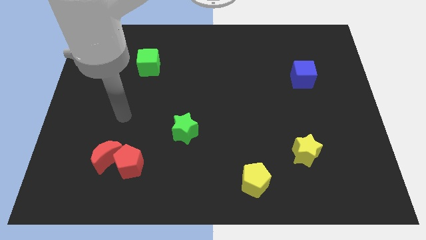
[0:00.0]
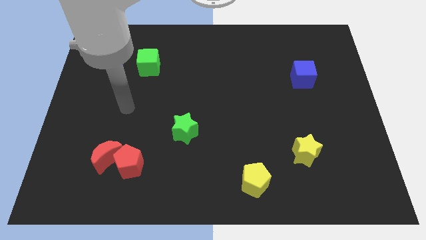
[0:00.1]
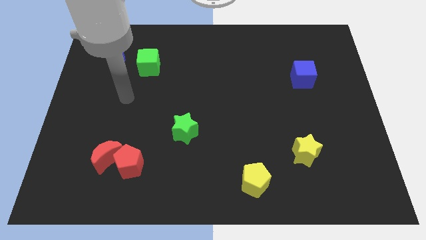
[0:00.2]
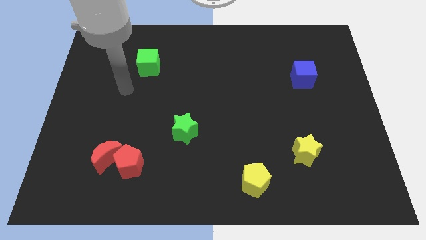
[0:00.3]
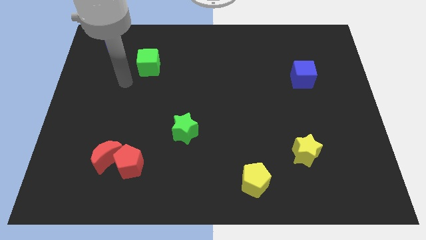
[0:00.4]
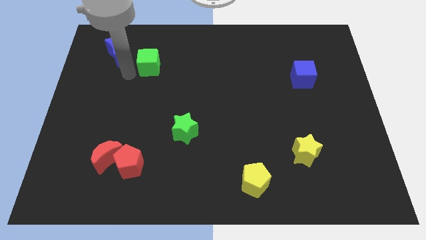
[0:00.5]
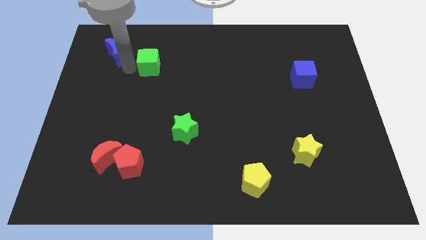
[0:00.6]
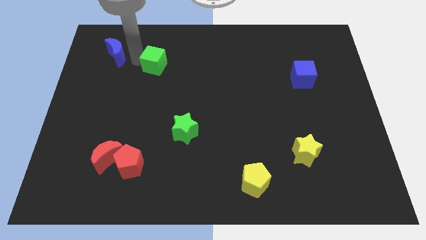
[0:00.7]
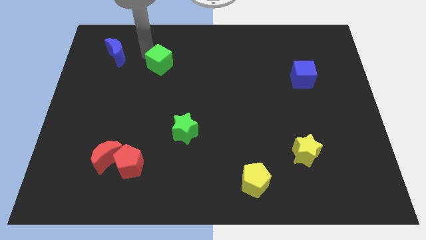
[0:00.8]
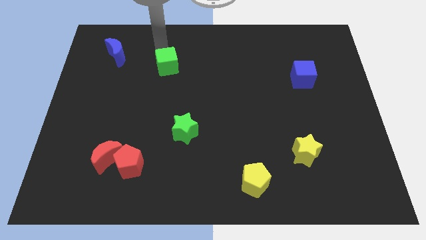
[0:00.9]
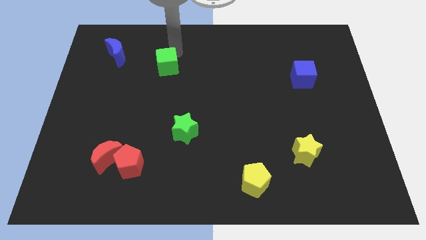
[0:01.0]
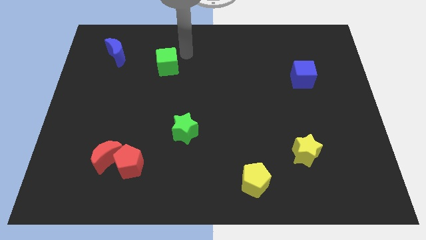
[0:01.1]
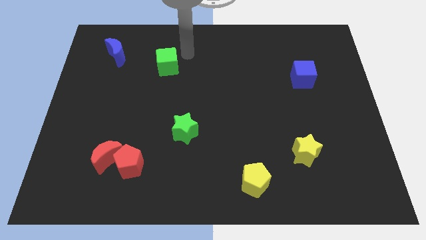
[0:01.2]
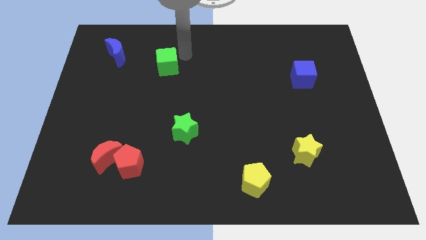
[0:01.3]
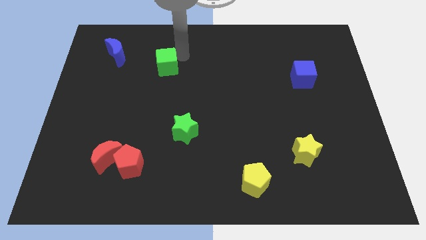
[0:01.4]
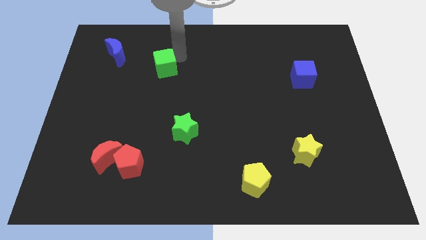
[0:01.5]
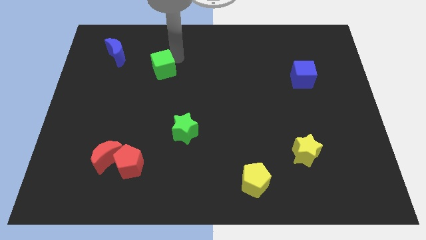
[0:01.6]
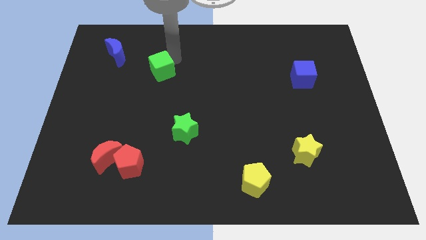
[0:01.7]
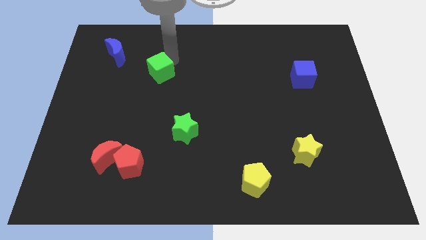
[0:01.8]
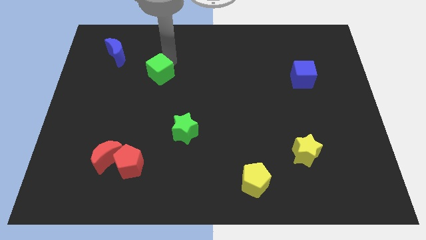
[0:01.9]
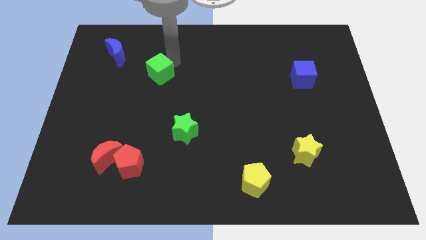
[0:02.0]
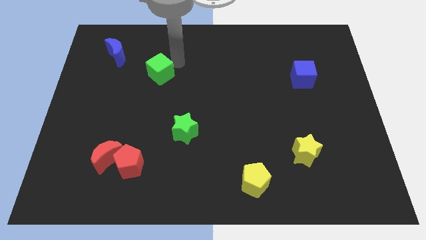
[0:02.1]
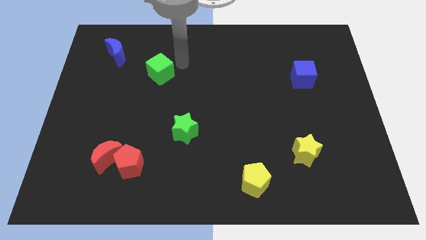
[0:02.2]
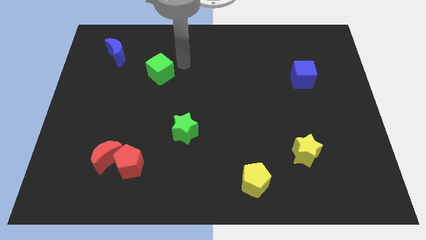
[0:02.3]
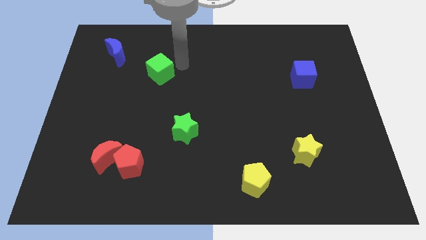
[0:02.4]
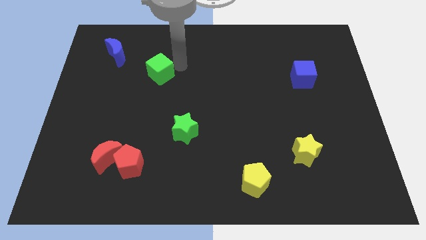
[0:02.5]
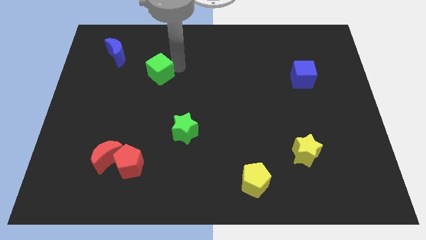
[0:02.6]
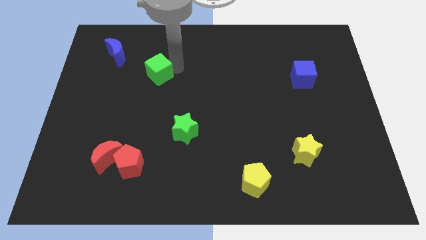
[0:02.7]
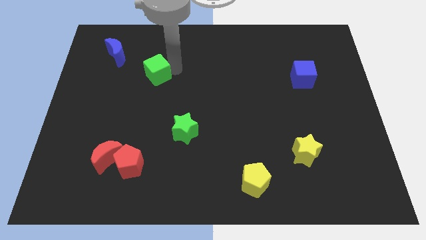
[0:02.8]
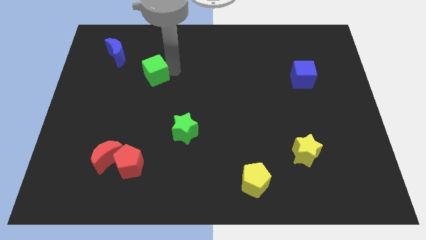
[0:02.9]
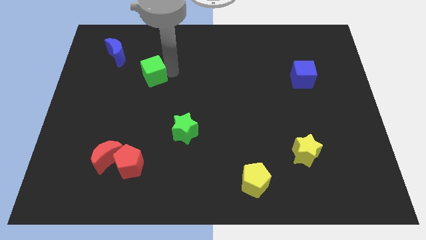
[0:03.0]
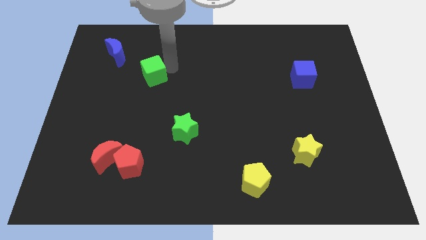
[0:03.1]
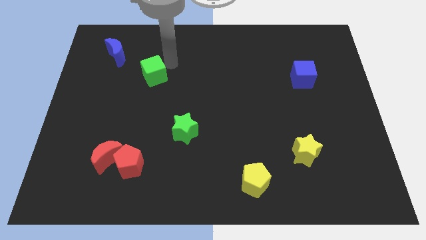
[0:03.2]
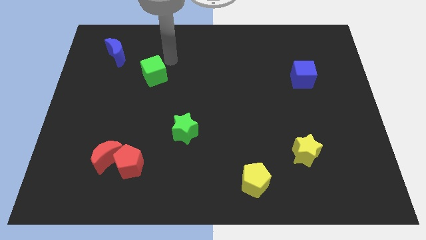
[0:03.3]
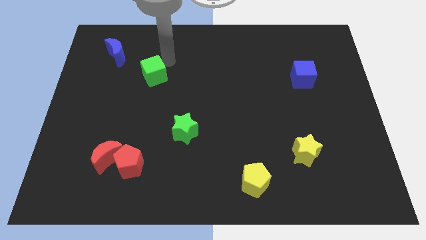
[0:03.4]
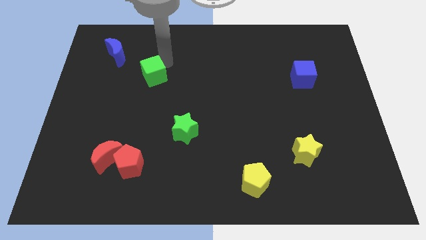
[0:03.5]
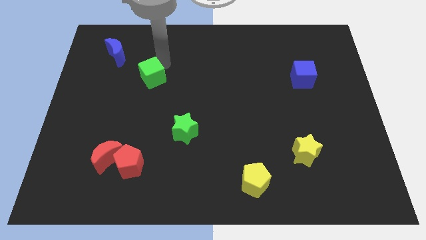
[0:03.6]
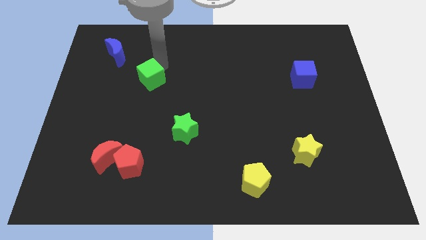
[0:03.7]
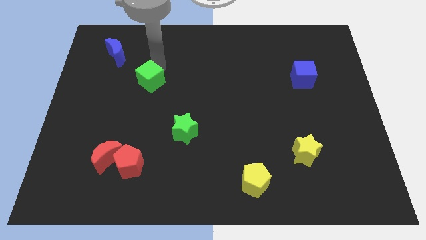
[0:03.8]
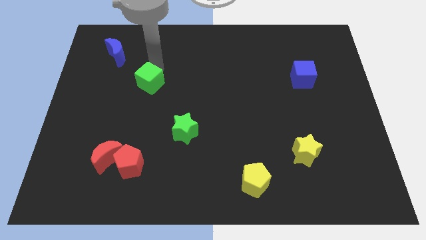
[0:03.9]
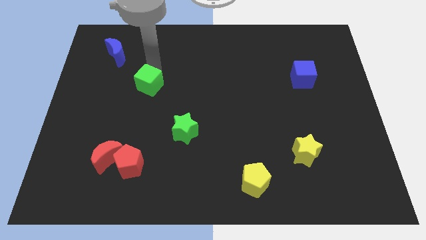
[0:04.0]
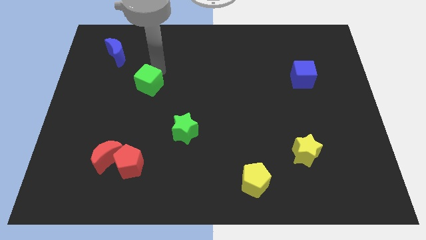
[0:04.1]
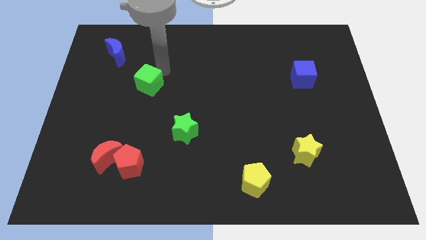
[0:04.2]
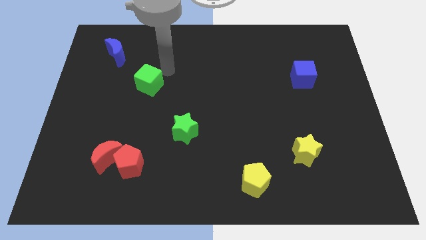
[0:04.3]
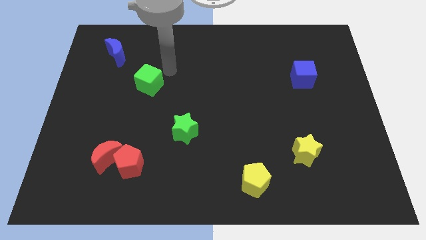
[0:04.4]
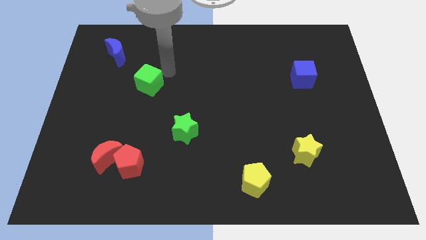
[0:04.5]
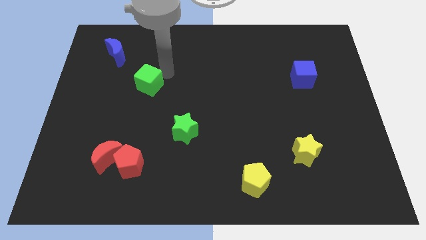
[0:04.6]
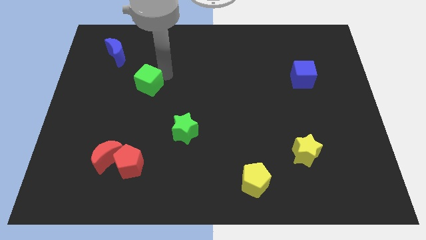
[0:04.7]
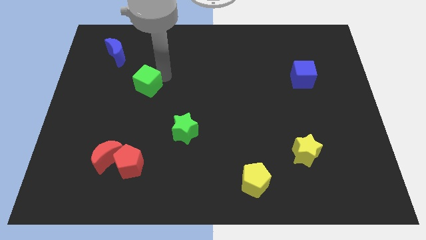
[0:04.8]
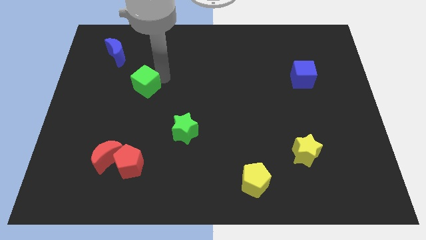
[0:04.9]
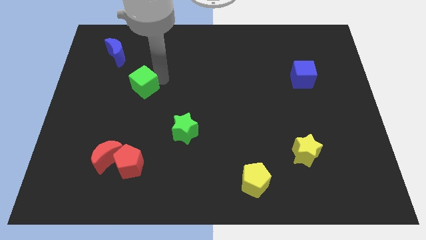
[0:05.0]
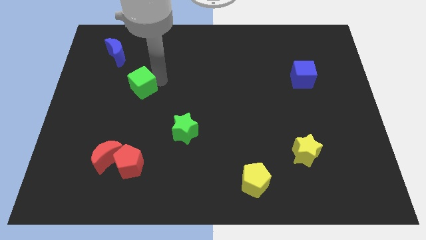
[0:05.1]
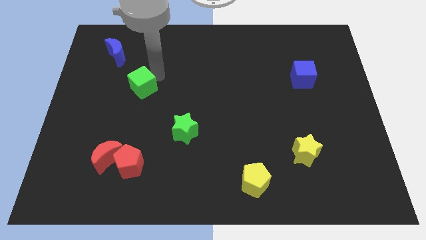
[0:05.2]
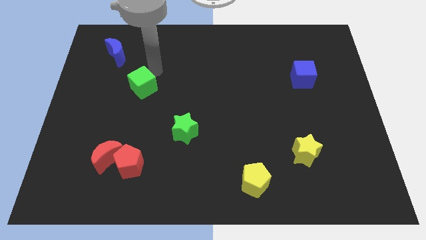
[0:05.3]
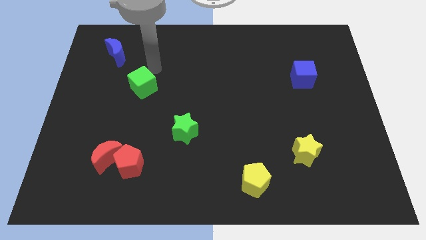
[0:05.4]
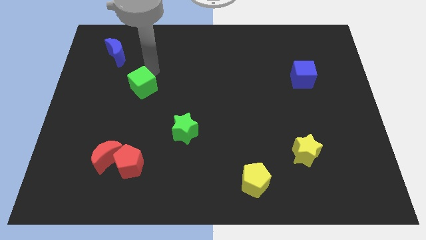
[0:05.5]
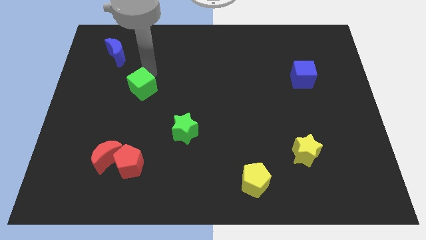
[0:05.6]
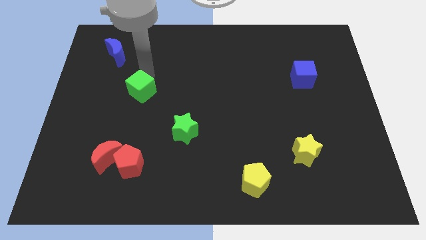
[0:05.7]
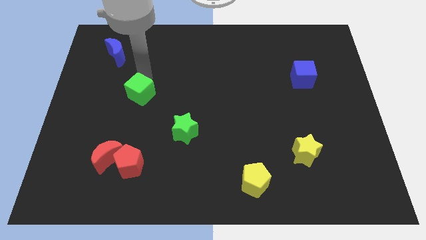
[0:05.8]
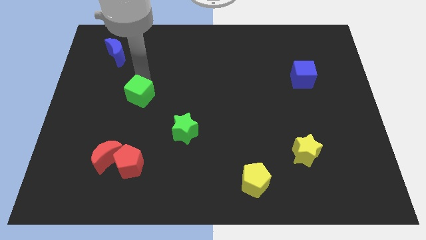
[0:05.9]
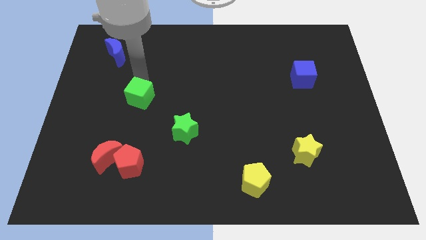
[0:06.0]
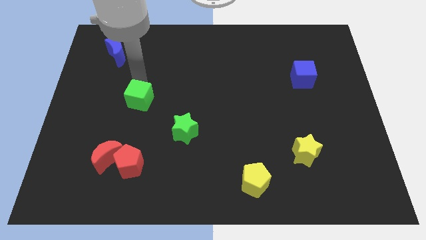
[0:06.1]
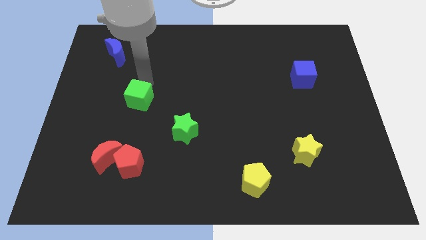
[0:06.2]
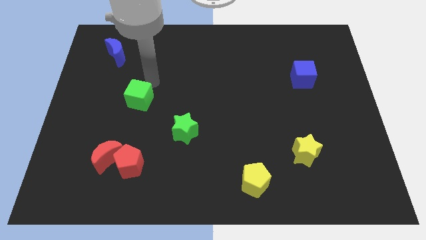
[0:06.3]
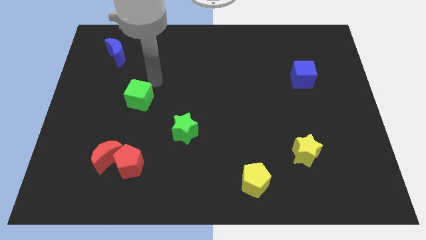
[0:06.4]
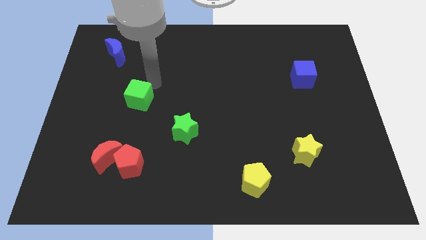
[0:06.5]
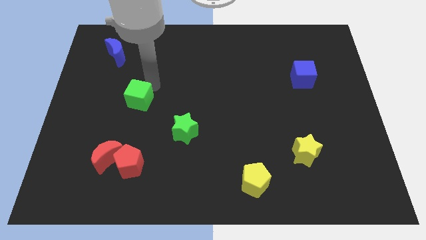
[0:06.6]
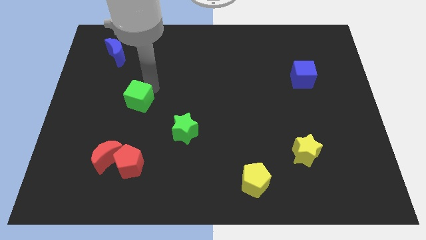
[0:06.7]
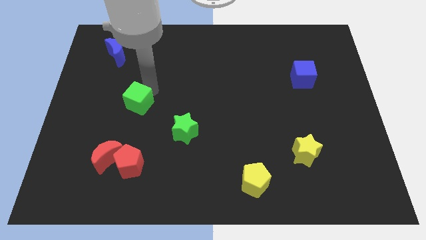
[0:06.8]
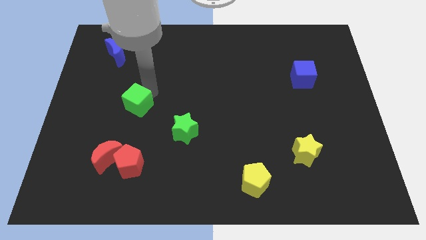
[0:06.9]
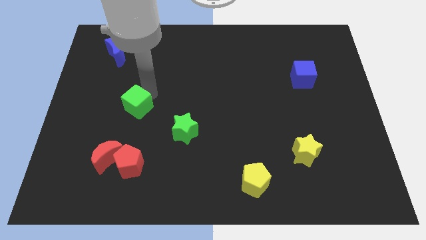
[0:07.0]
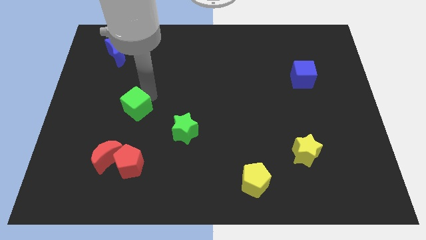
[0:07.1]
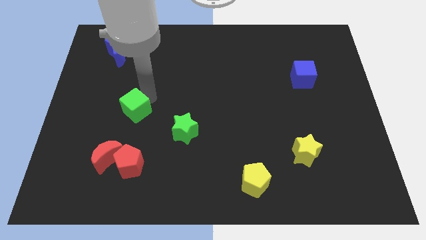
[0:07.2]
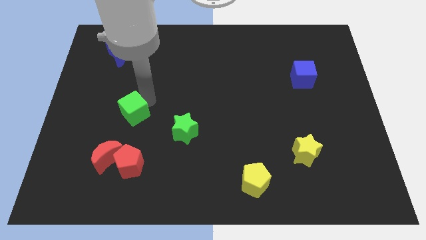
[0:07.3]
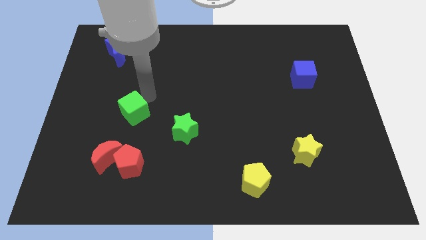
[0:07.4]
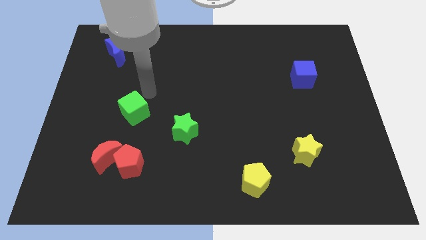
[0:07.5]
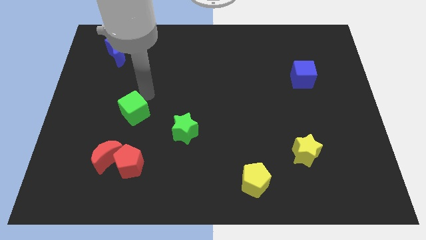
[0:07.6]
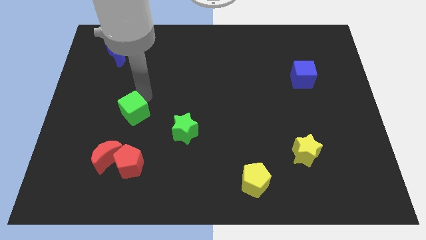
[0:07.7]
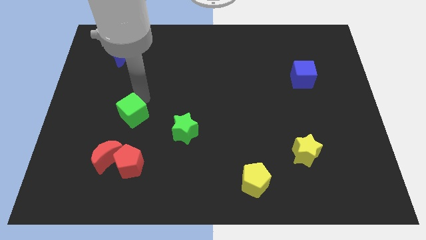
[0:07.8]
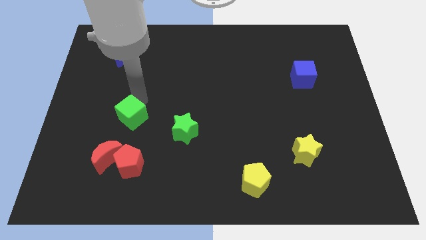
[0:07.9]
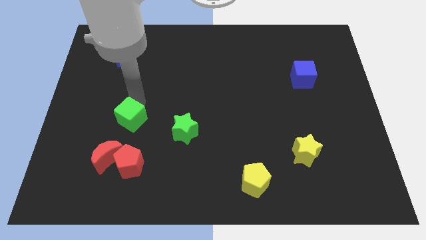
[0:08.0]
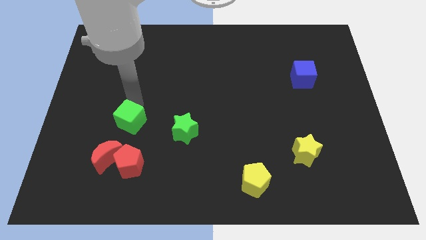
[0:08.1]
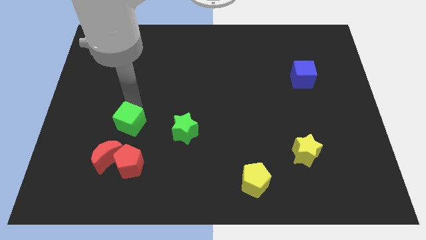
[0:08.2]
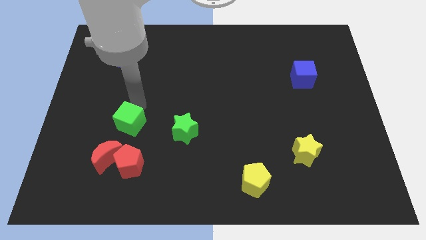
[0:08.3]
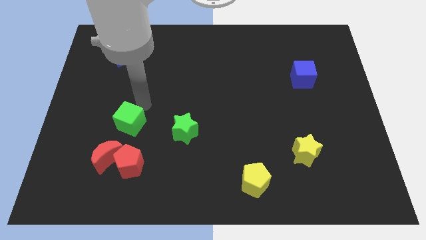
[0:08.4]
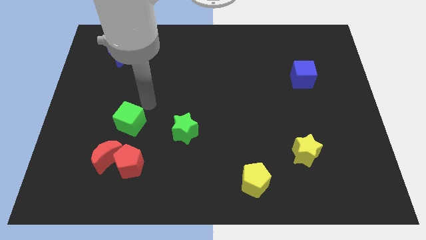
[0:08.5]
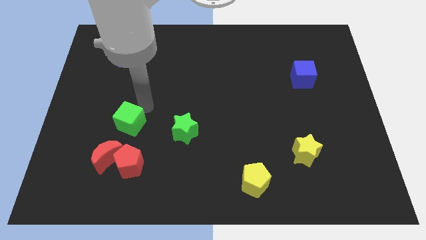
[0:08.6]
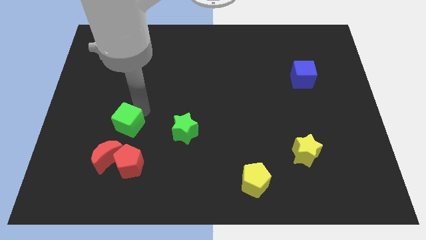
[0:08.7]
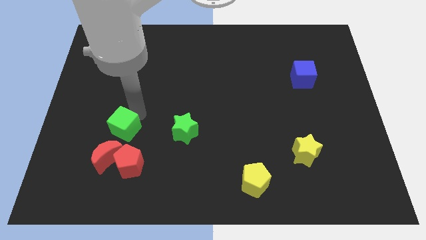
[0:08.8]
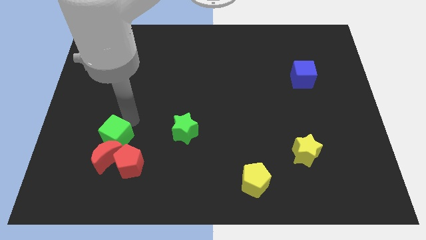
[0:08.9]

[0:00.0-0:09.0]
move the green cube towards the red moon
